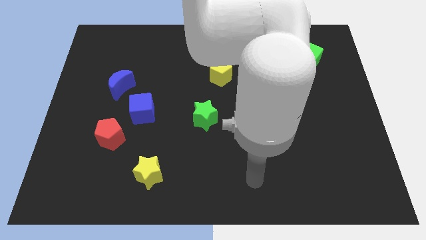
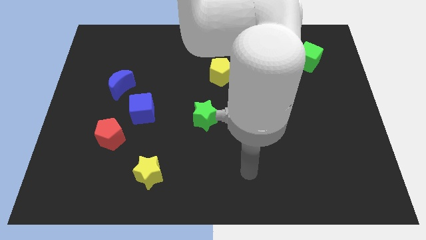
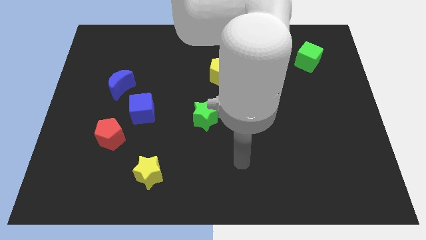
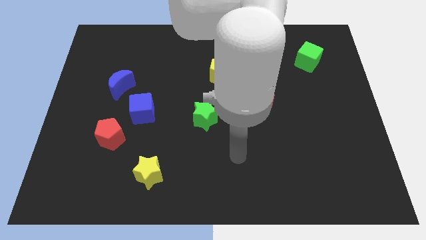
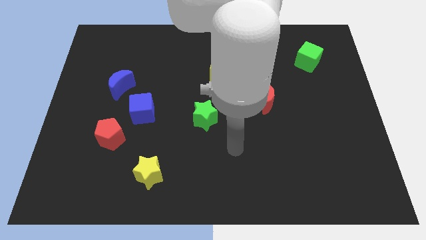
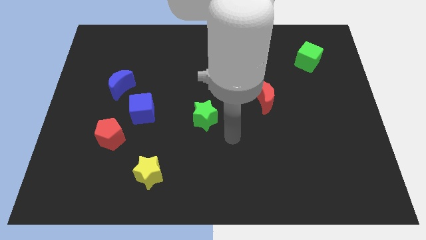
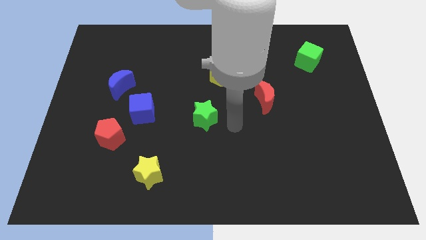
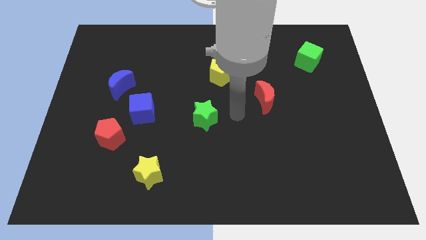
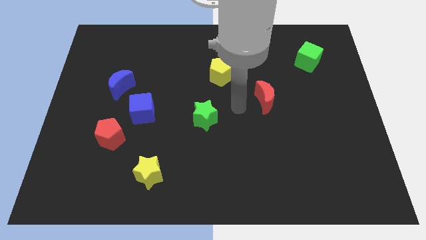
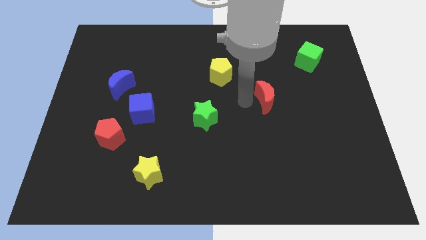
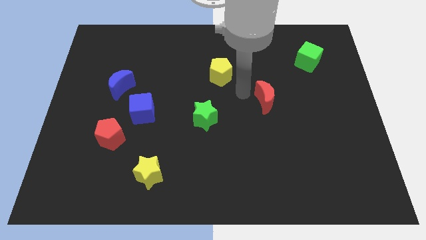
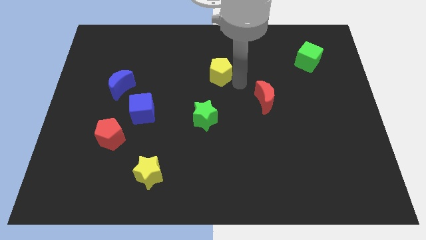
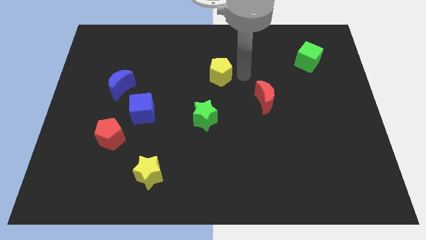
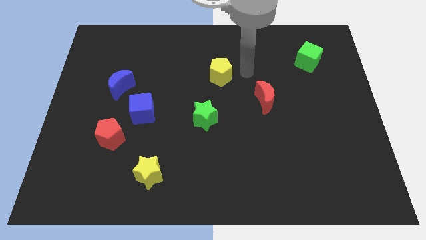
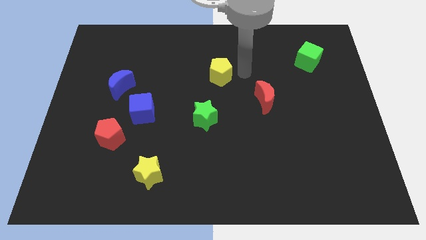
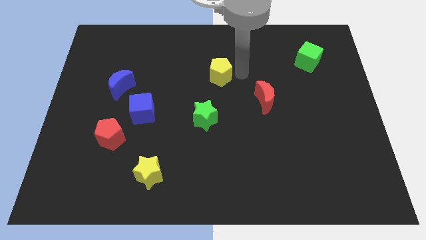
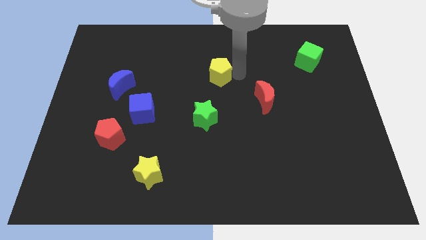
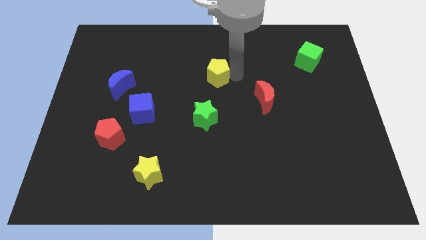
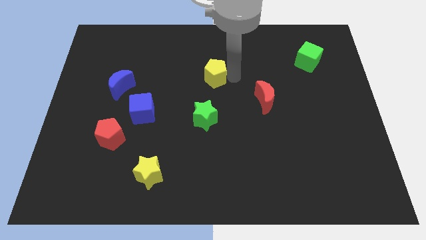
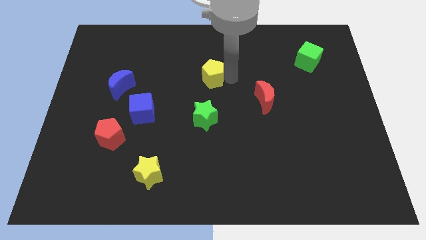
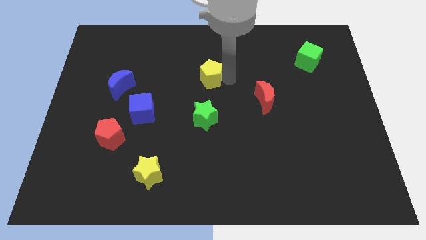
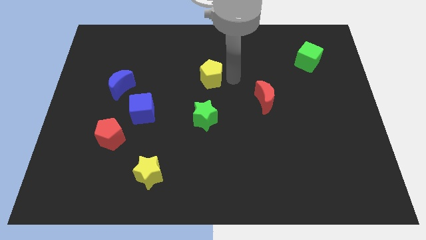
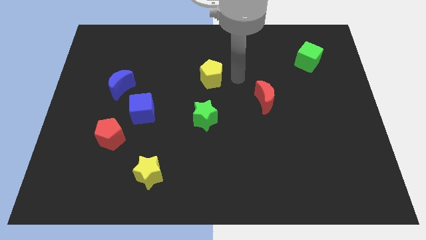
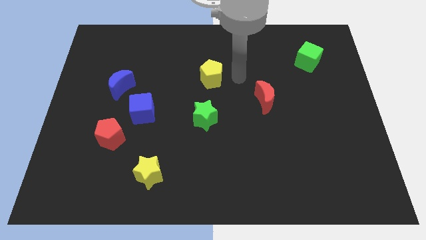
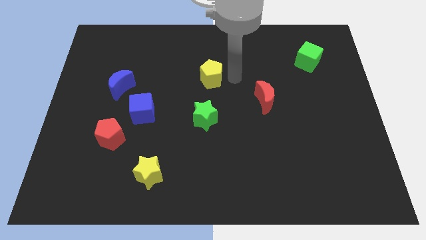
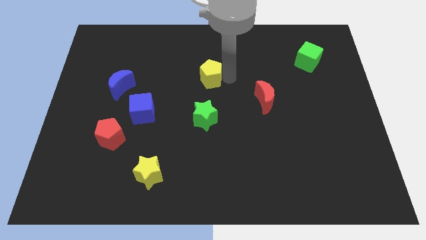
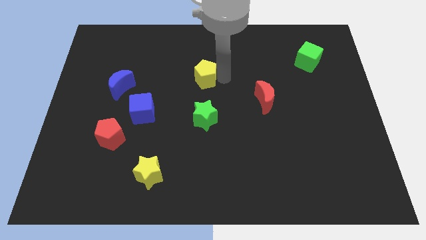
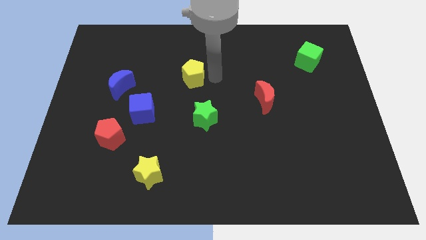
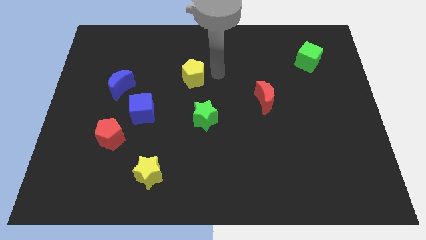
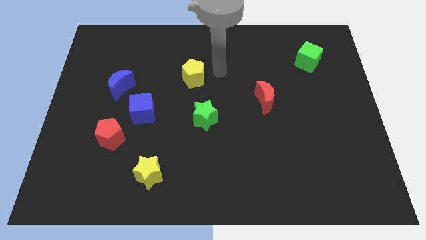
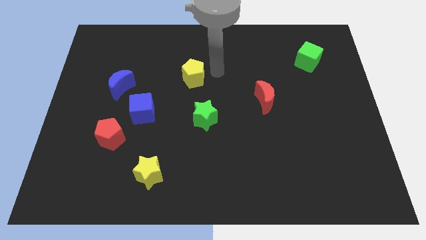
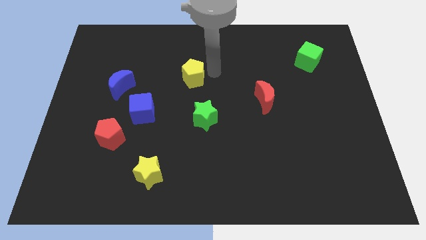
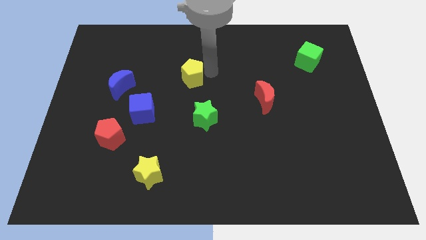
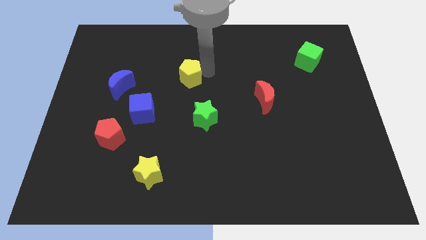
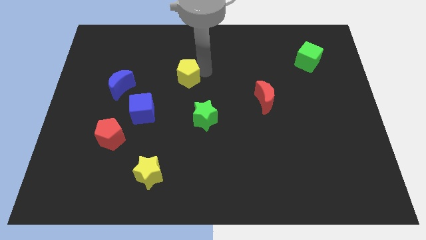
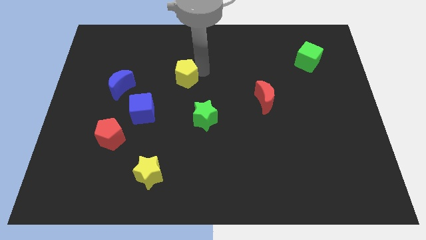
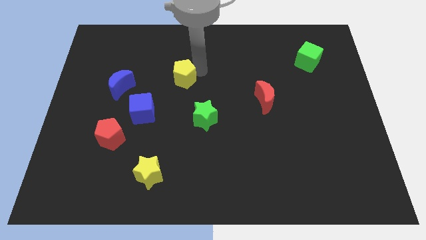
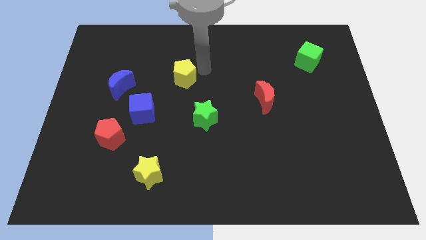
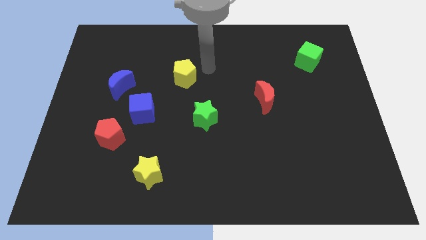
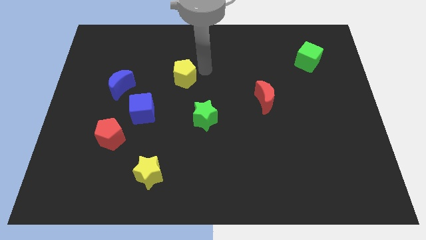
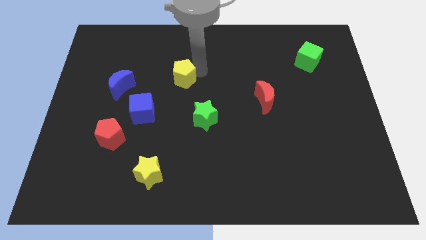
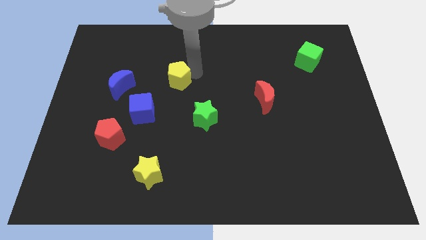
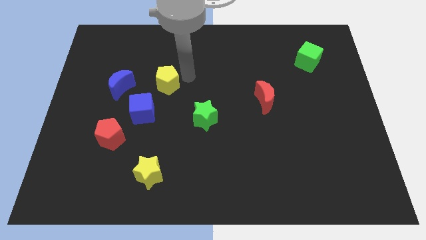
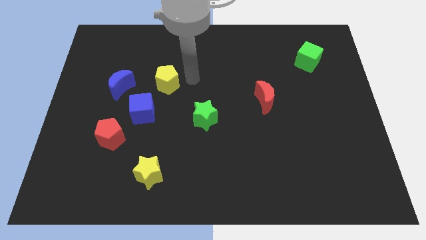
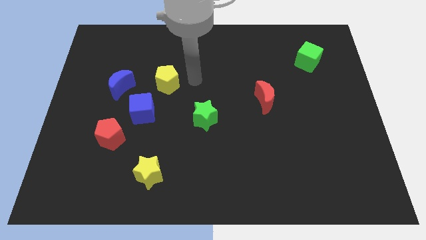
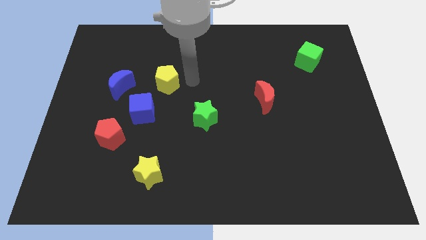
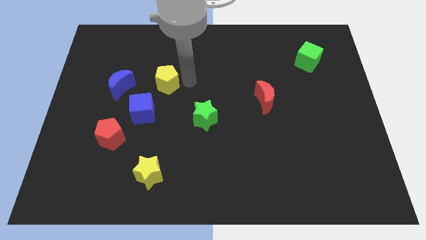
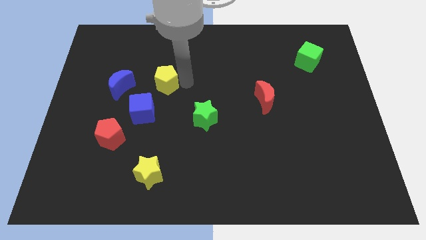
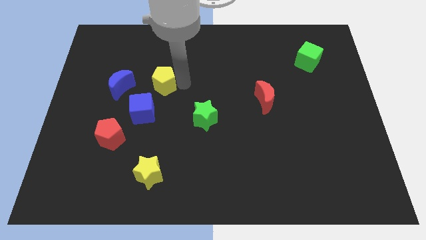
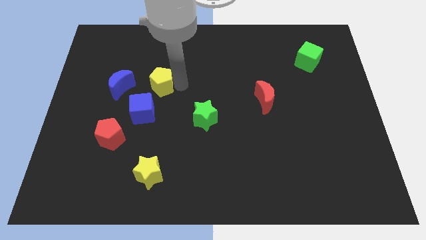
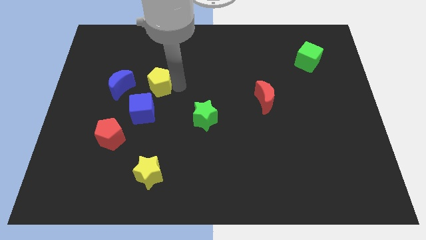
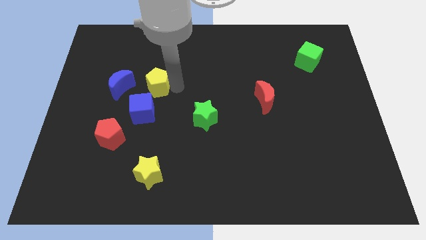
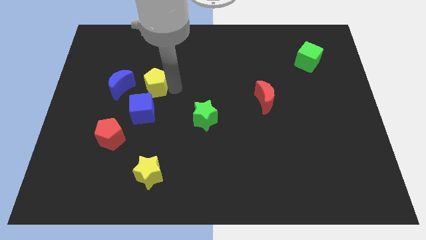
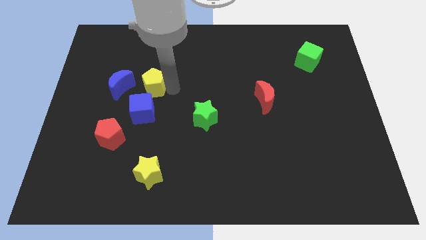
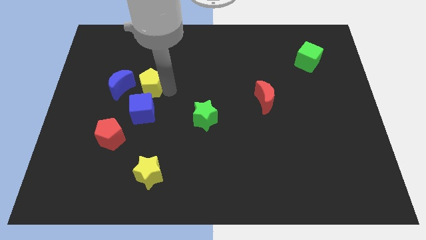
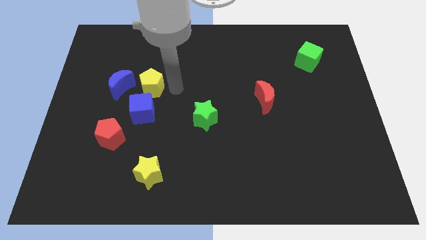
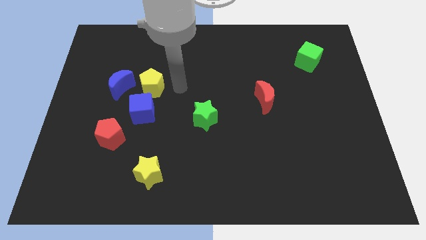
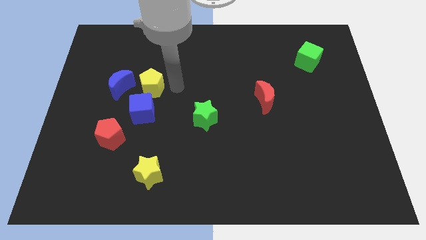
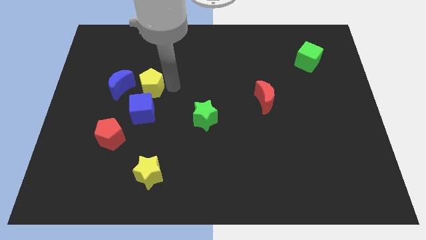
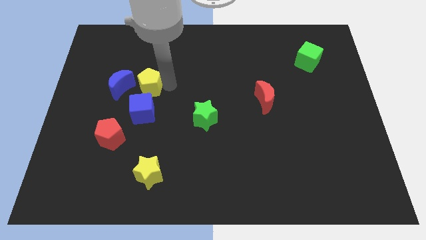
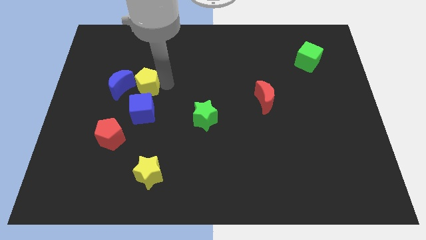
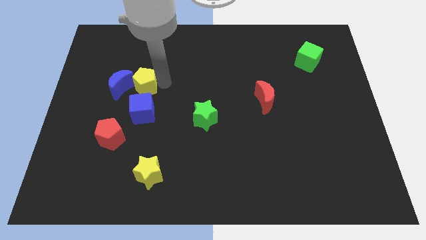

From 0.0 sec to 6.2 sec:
put the yellow pentagon to the blue moon

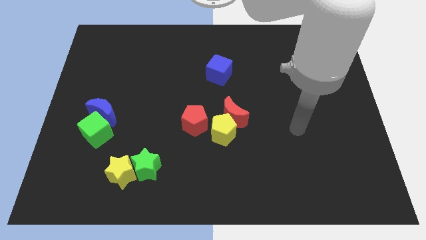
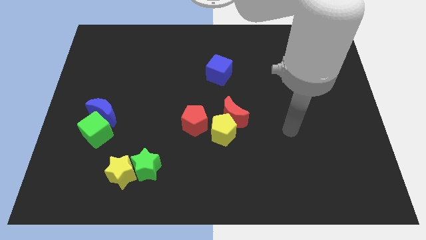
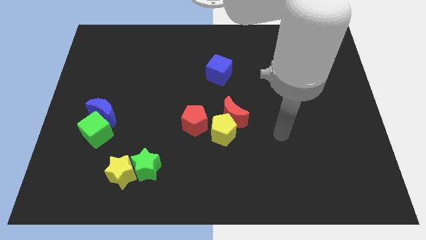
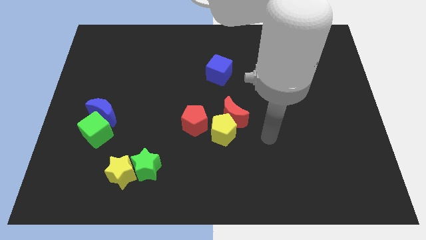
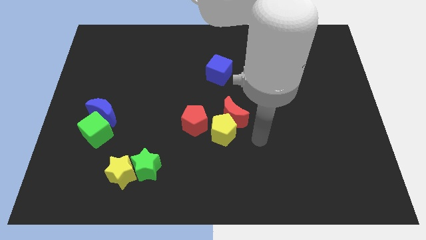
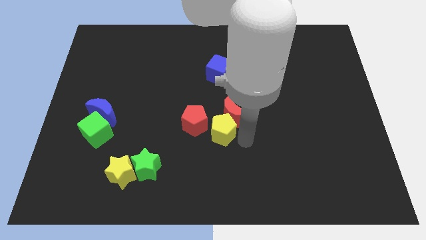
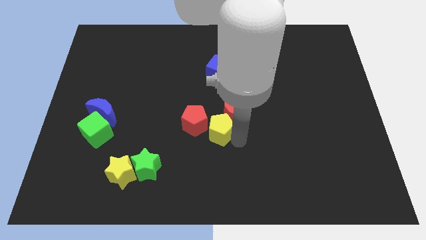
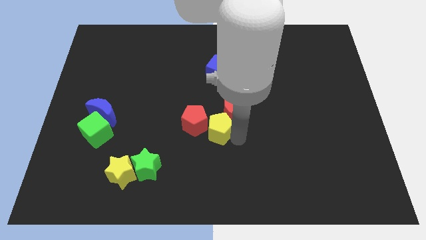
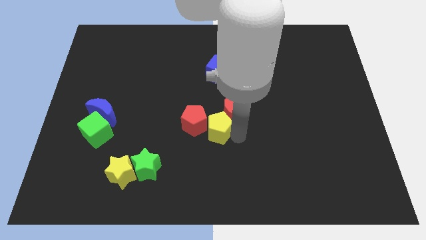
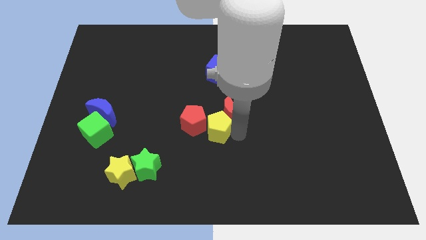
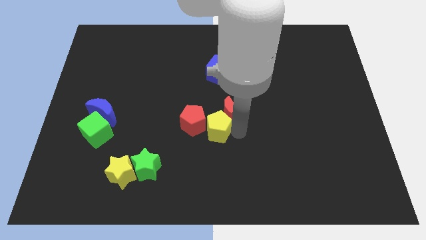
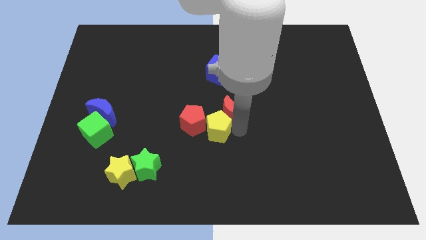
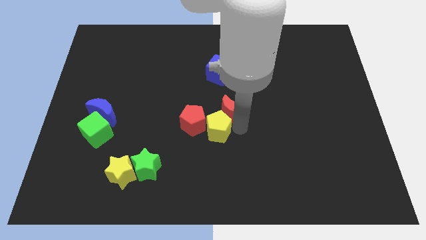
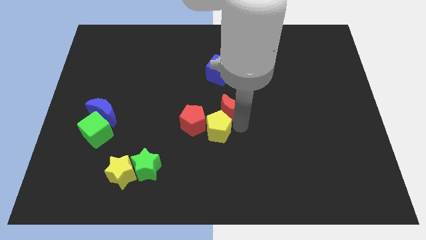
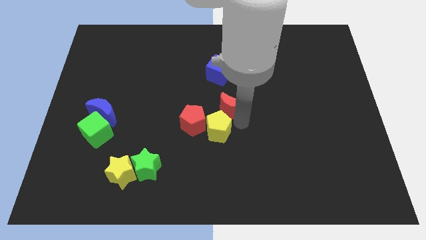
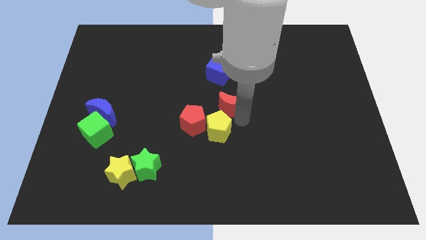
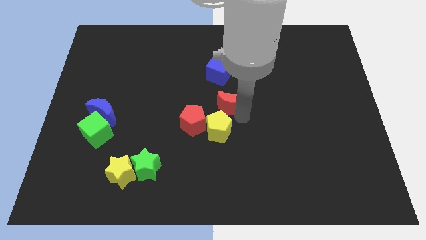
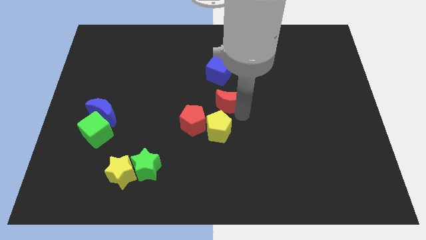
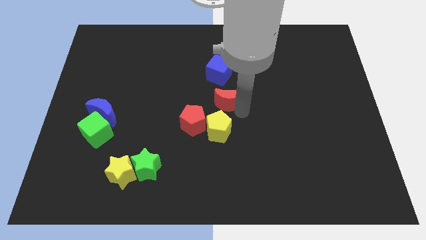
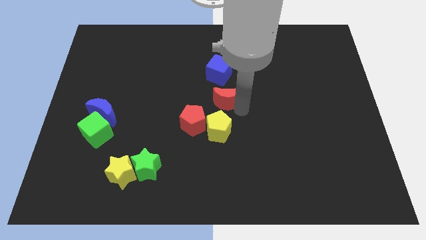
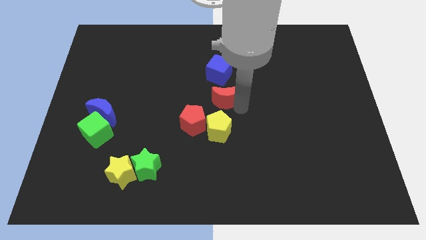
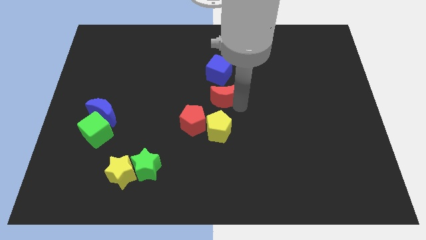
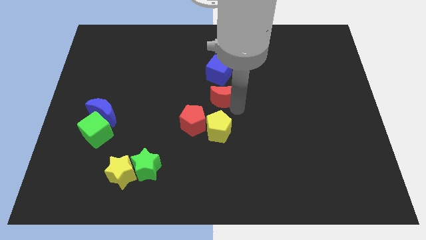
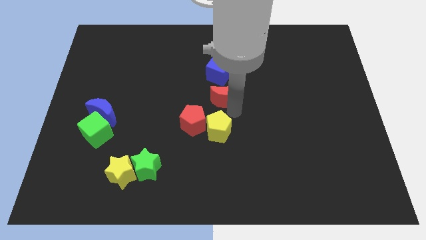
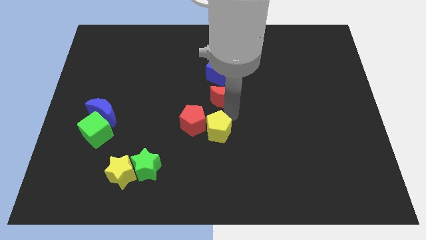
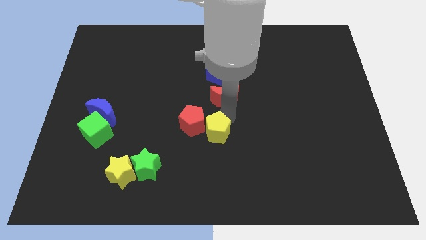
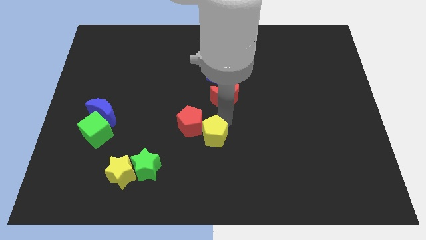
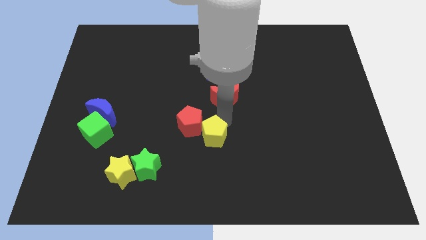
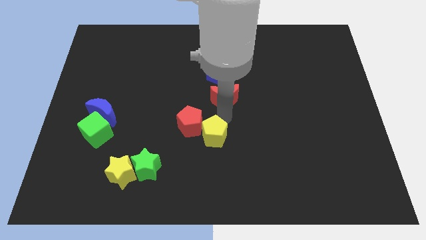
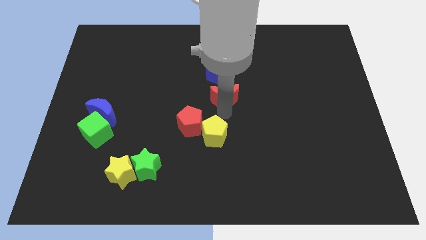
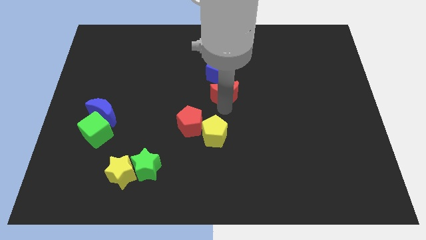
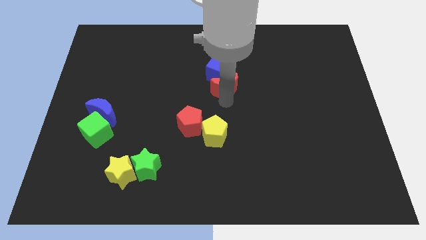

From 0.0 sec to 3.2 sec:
slide the red moon close to the blue cube
